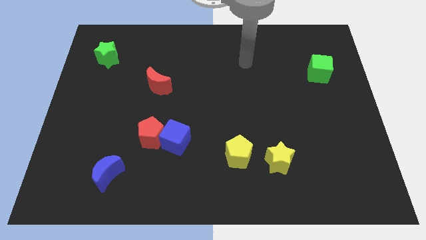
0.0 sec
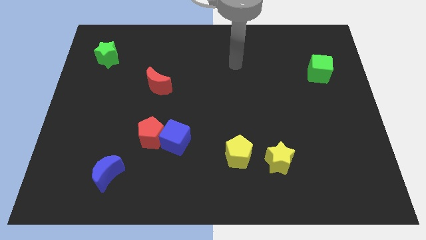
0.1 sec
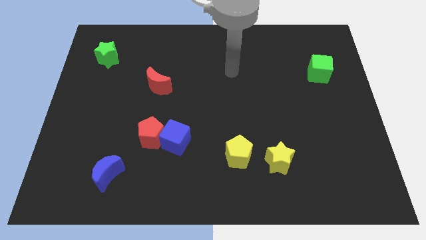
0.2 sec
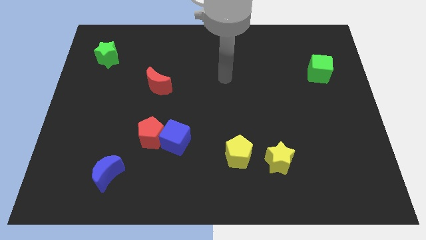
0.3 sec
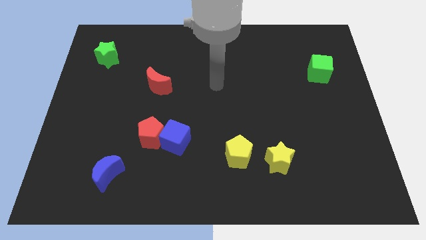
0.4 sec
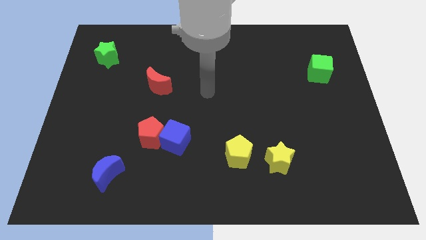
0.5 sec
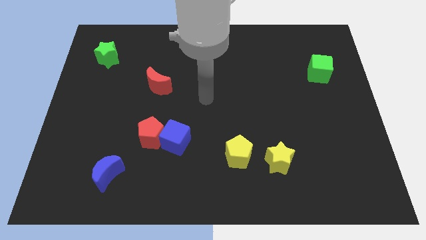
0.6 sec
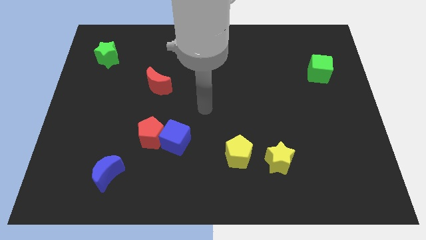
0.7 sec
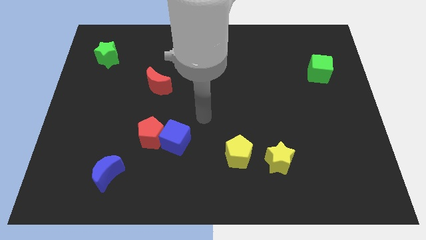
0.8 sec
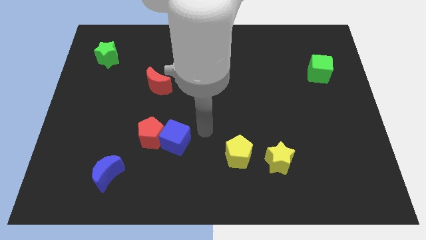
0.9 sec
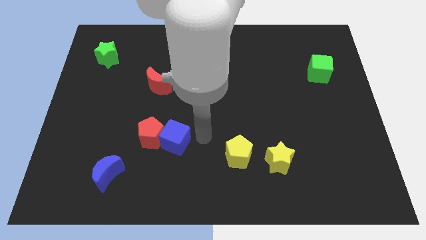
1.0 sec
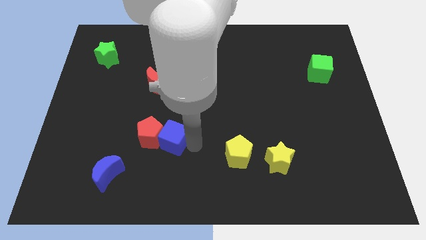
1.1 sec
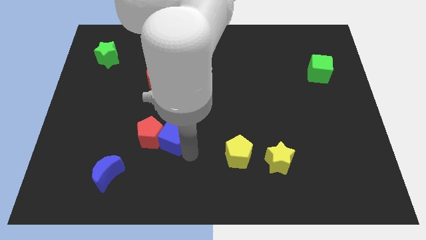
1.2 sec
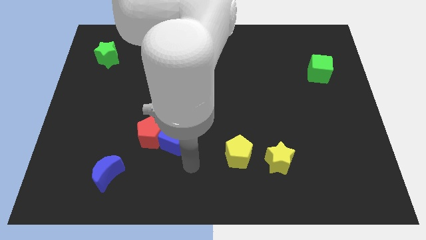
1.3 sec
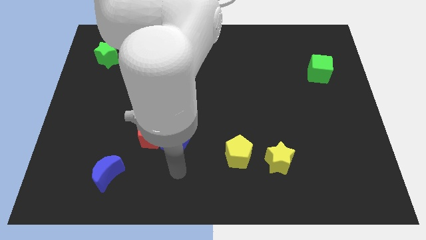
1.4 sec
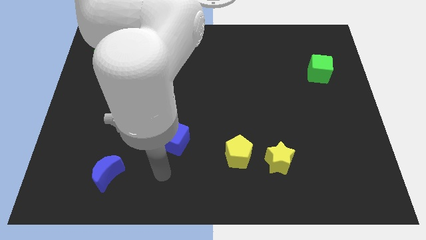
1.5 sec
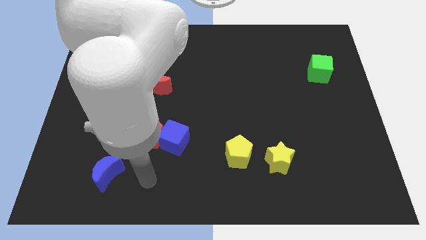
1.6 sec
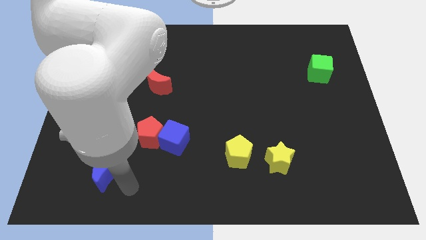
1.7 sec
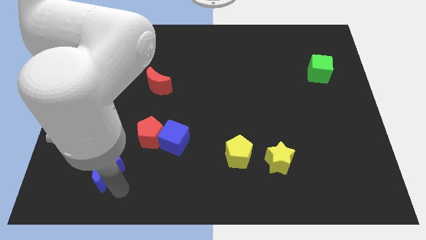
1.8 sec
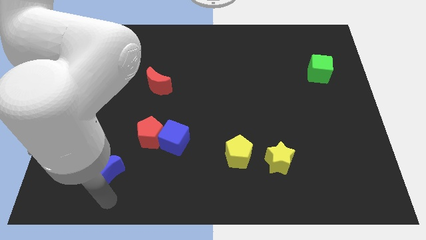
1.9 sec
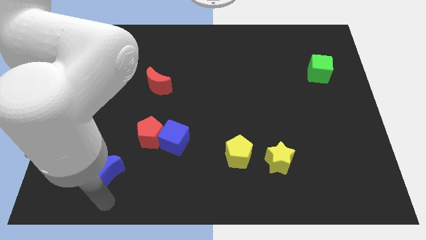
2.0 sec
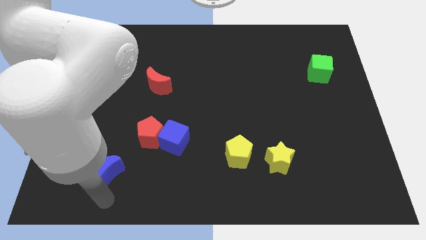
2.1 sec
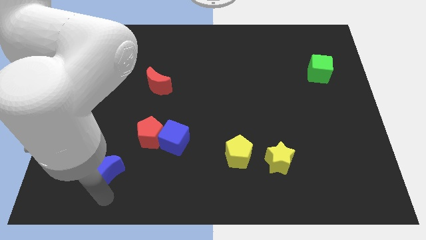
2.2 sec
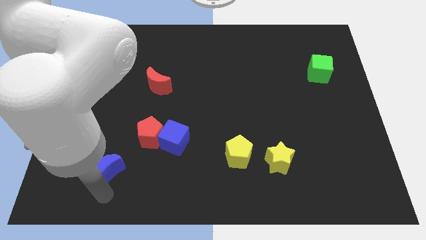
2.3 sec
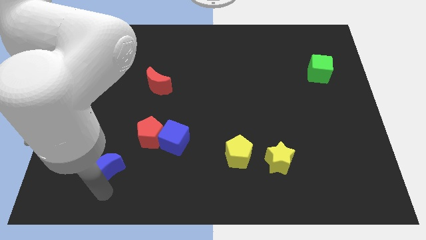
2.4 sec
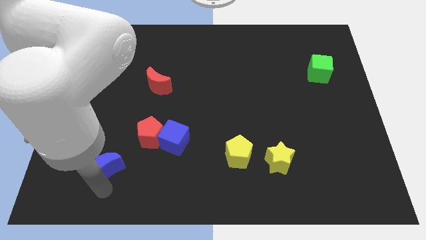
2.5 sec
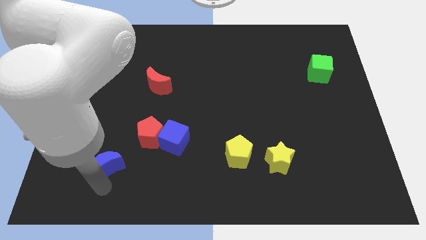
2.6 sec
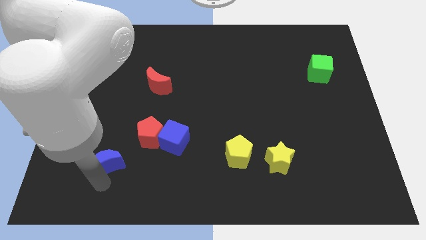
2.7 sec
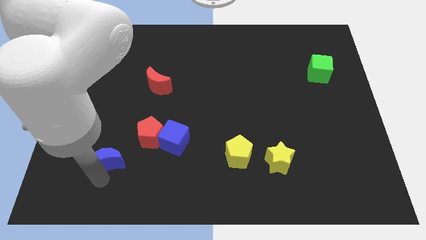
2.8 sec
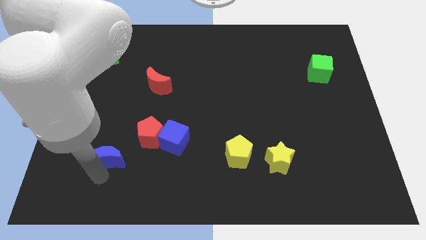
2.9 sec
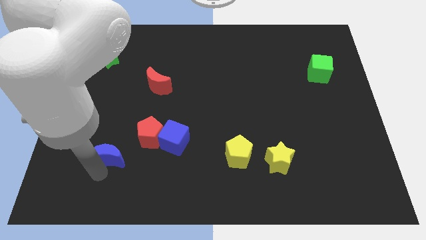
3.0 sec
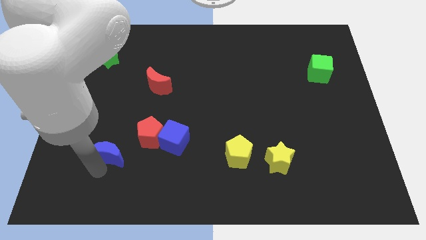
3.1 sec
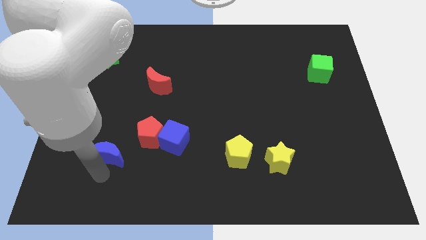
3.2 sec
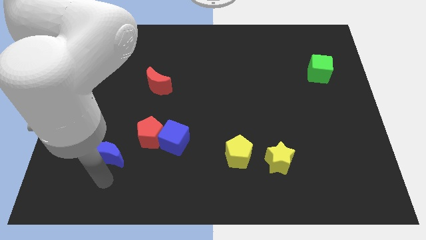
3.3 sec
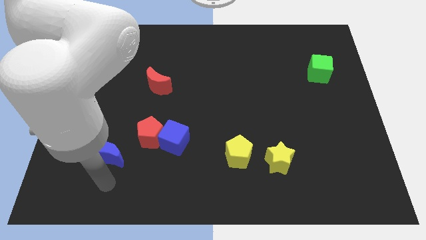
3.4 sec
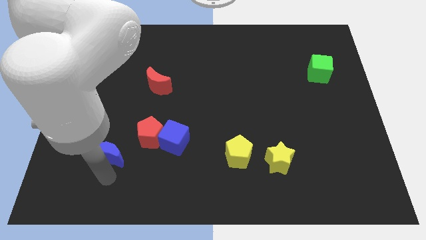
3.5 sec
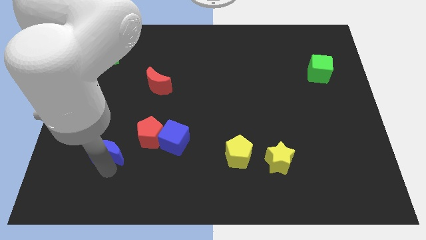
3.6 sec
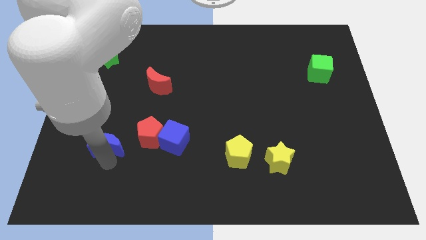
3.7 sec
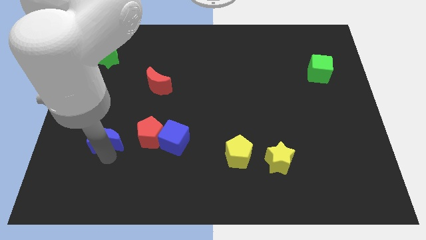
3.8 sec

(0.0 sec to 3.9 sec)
slide the blue moon up slightly

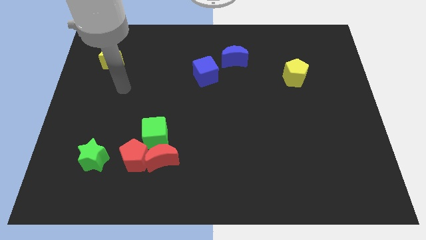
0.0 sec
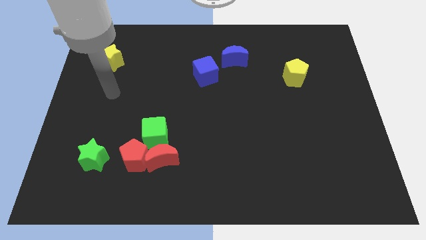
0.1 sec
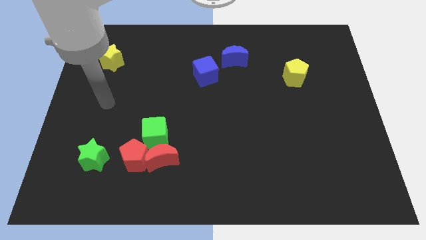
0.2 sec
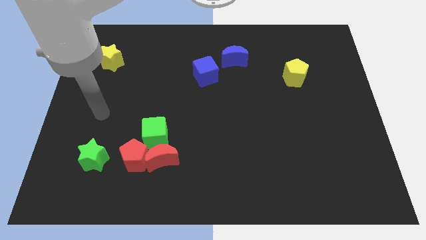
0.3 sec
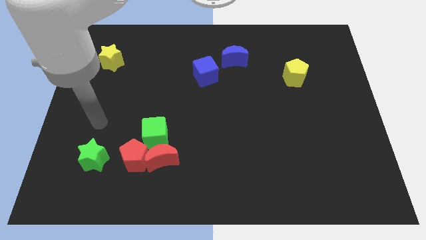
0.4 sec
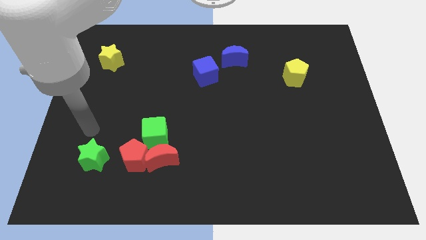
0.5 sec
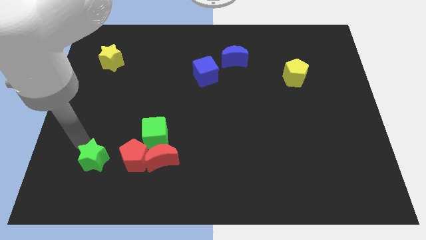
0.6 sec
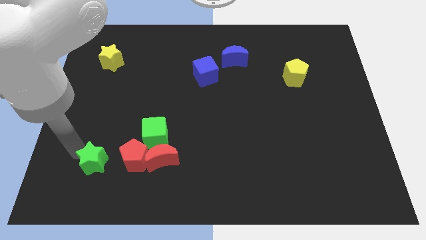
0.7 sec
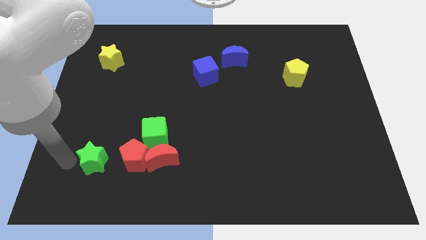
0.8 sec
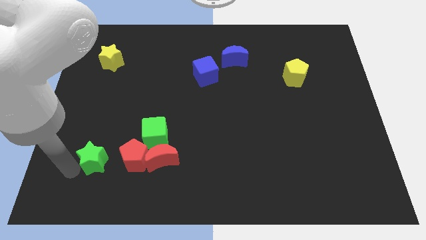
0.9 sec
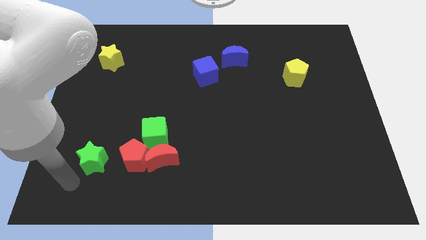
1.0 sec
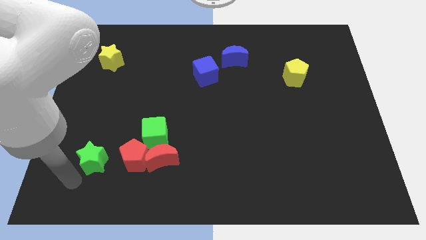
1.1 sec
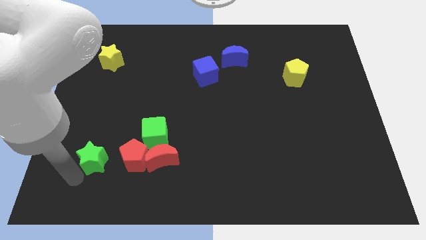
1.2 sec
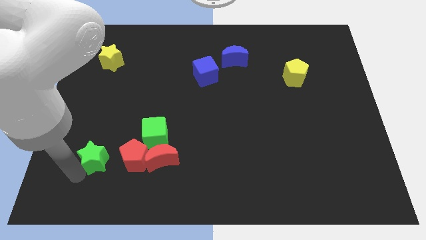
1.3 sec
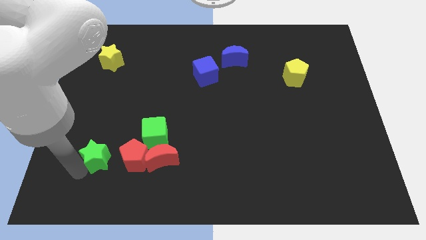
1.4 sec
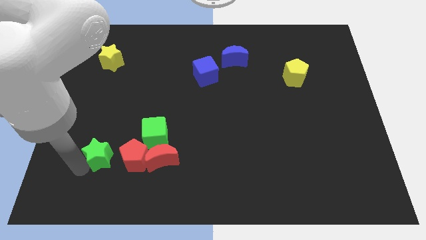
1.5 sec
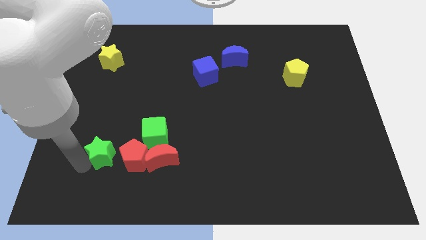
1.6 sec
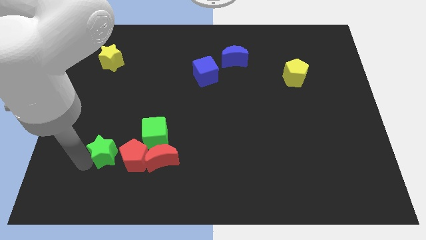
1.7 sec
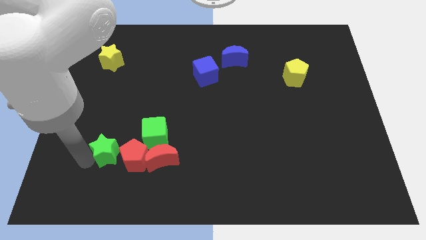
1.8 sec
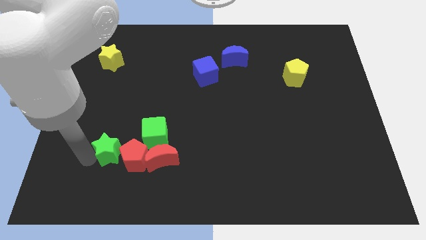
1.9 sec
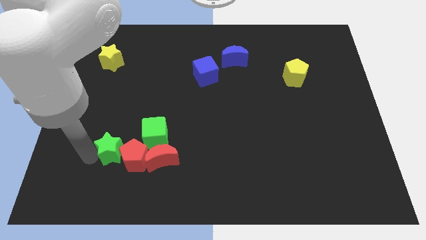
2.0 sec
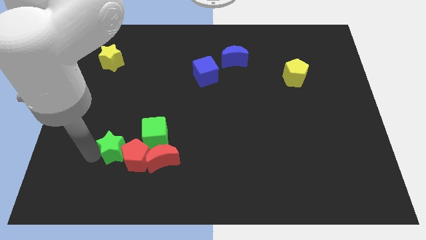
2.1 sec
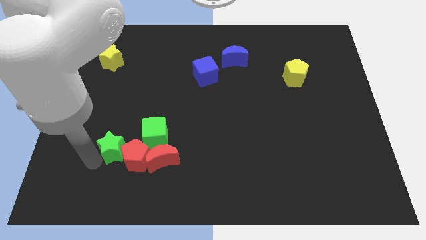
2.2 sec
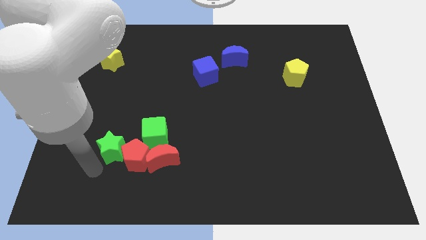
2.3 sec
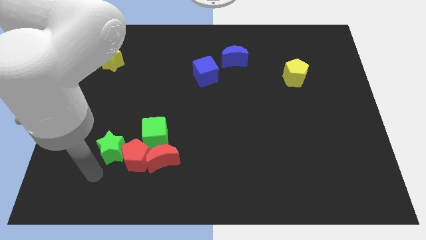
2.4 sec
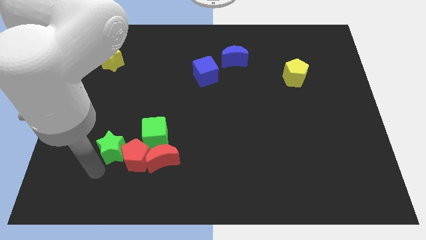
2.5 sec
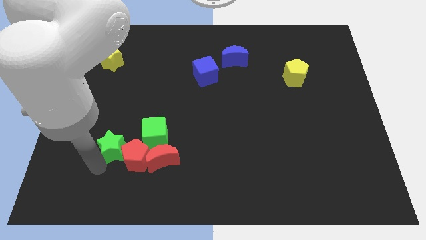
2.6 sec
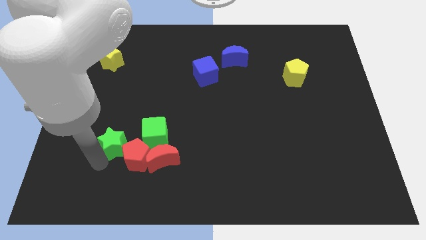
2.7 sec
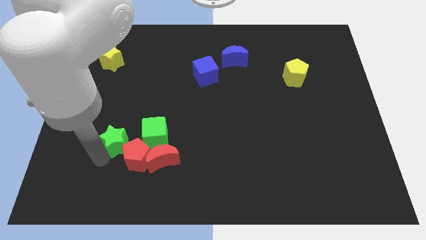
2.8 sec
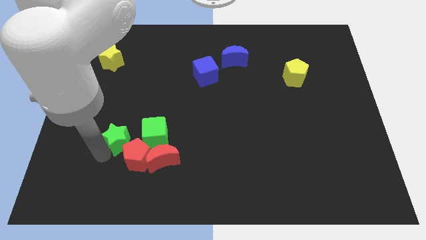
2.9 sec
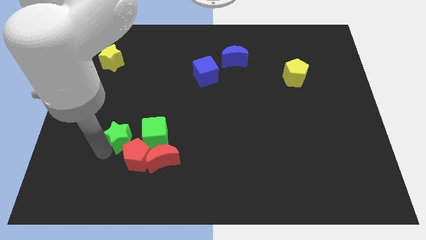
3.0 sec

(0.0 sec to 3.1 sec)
slide the green star a bit upwards and right

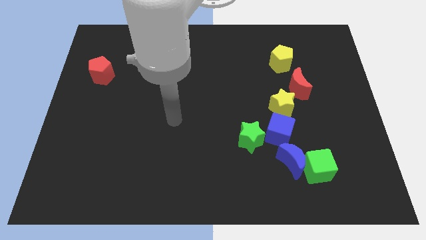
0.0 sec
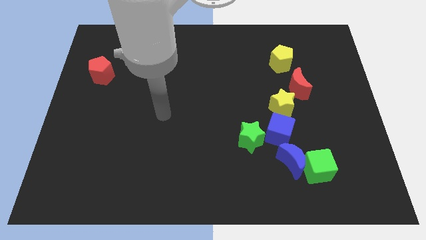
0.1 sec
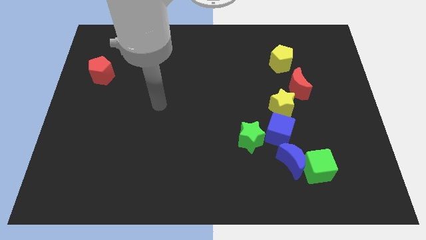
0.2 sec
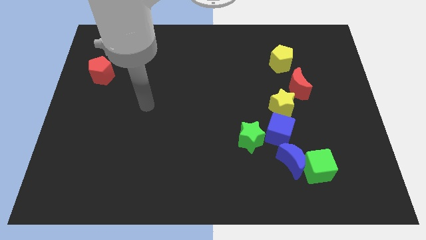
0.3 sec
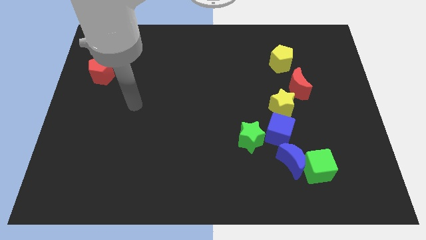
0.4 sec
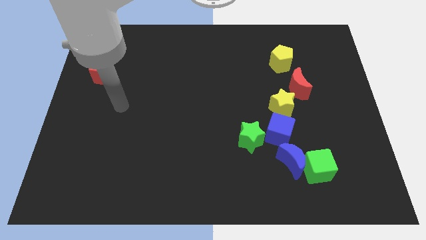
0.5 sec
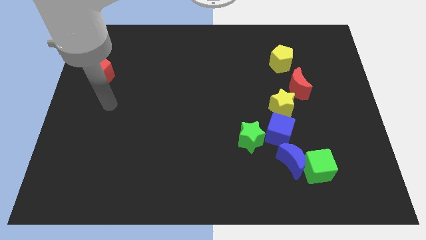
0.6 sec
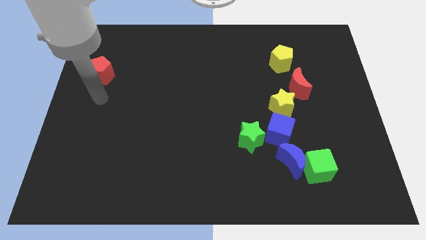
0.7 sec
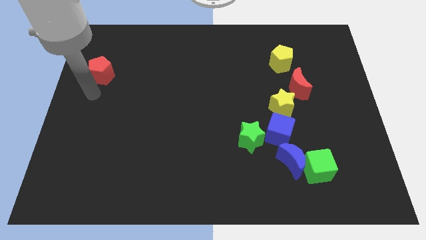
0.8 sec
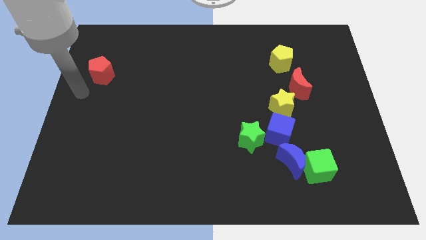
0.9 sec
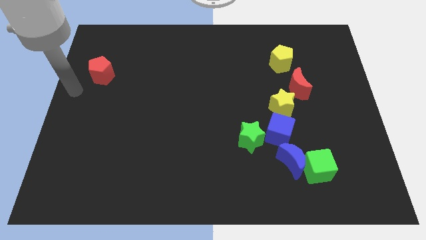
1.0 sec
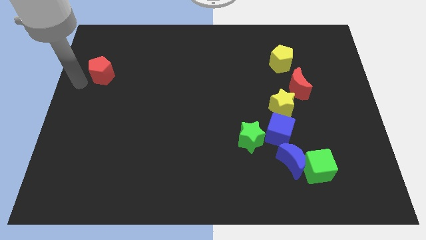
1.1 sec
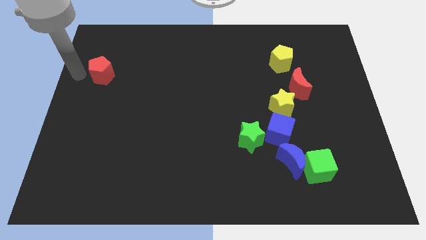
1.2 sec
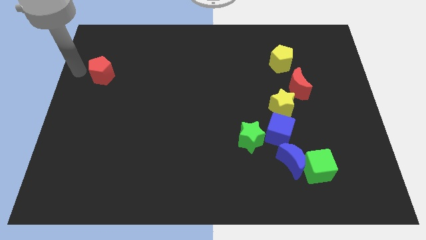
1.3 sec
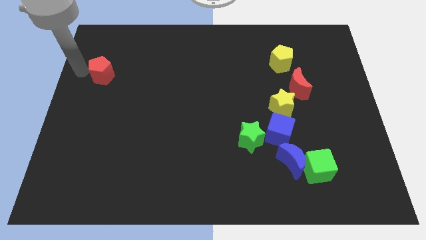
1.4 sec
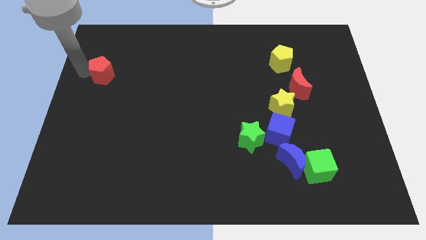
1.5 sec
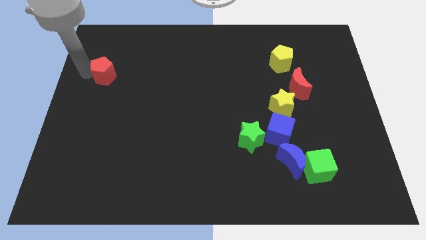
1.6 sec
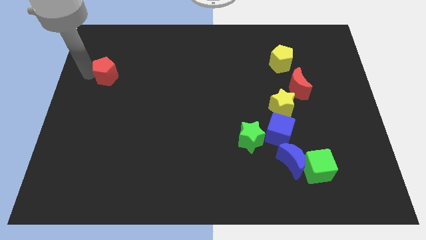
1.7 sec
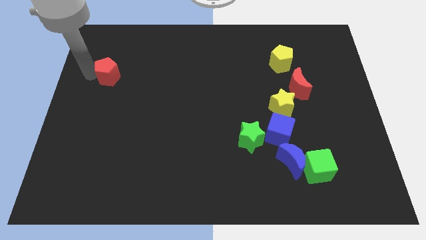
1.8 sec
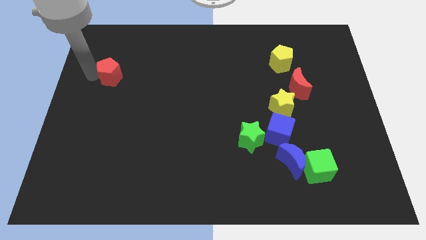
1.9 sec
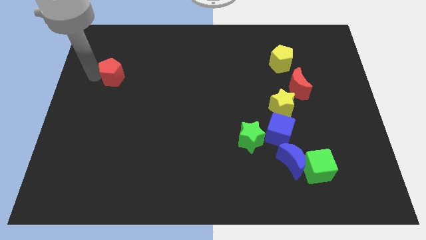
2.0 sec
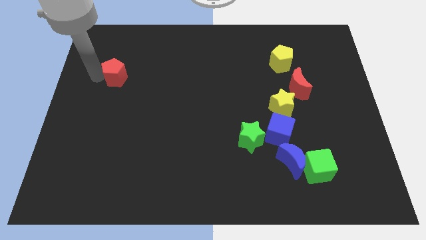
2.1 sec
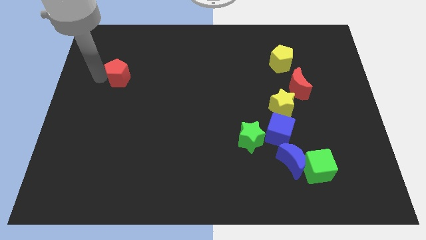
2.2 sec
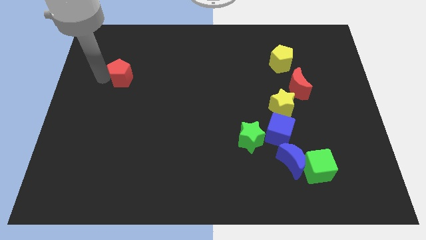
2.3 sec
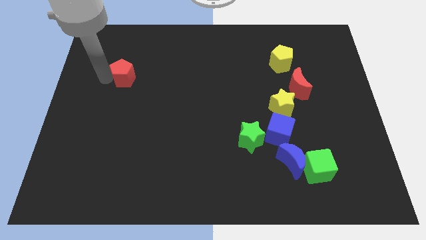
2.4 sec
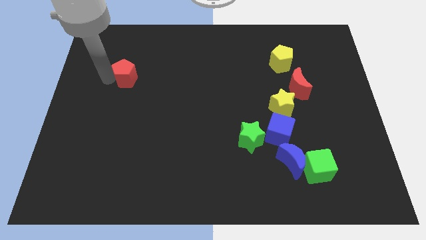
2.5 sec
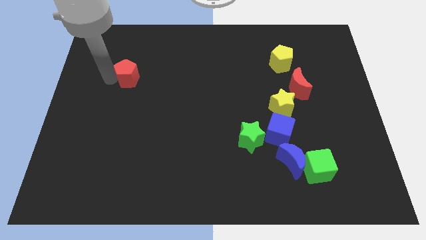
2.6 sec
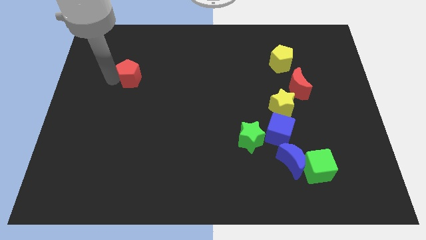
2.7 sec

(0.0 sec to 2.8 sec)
slightly push the red pentagon to the right
